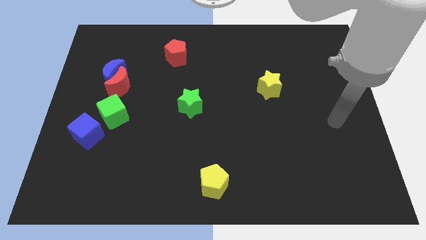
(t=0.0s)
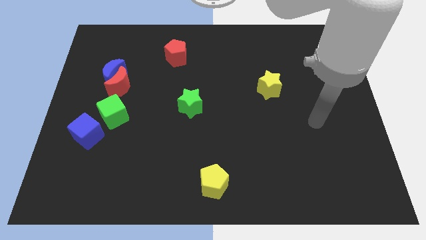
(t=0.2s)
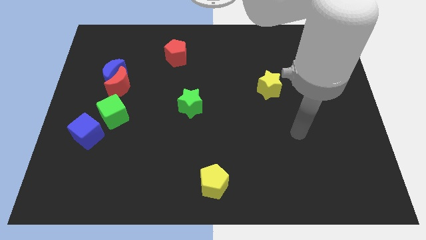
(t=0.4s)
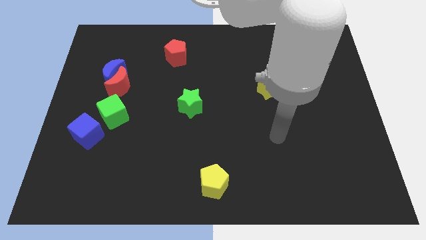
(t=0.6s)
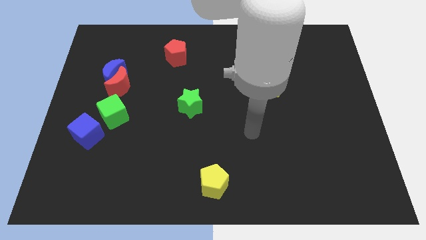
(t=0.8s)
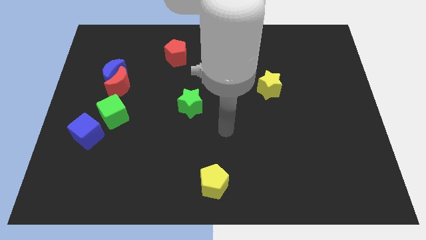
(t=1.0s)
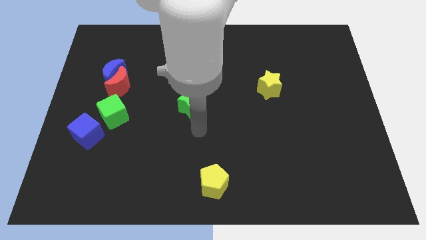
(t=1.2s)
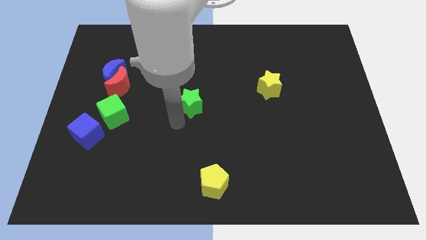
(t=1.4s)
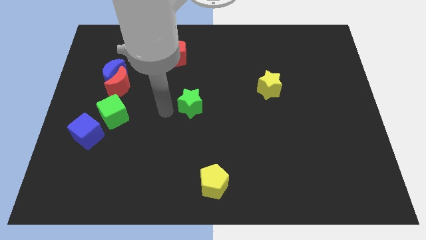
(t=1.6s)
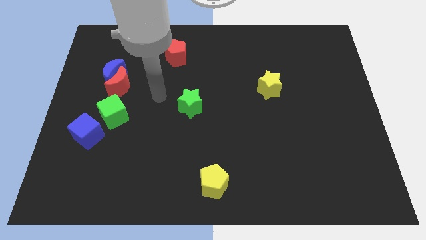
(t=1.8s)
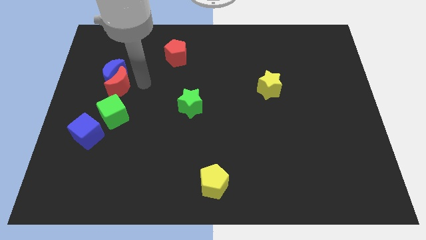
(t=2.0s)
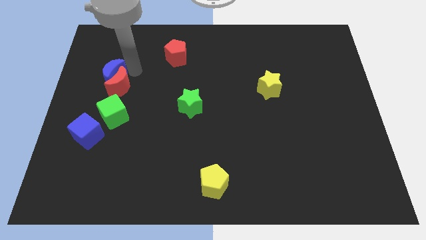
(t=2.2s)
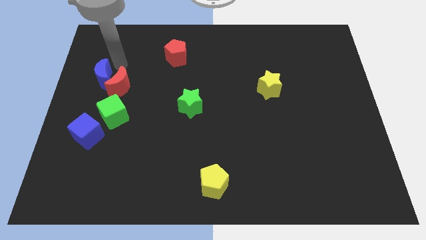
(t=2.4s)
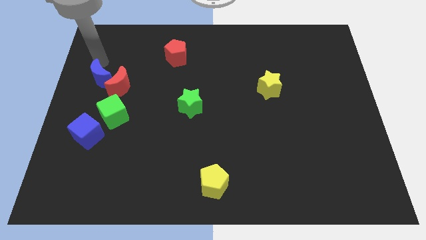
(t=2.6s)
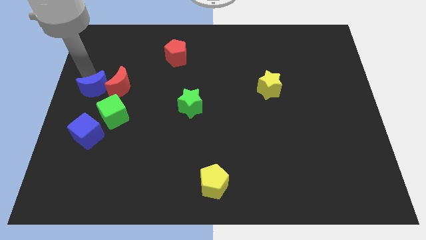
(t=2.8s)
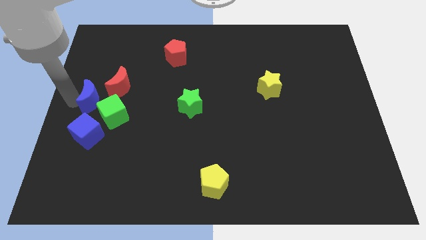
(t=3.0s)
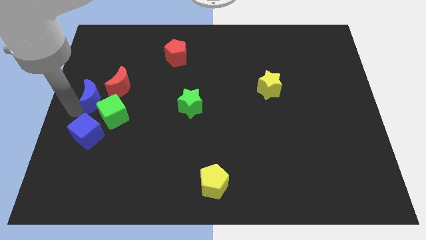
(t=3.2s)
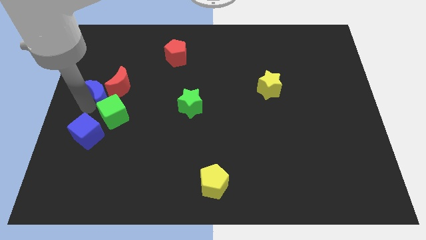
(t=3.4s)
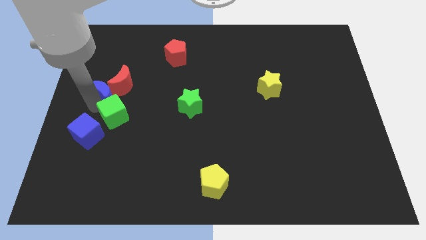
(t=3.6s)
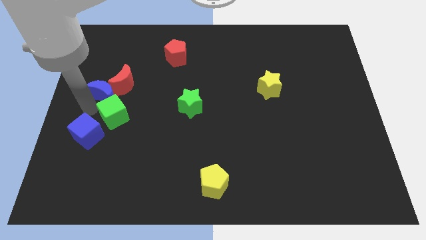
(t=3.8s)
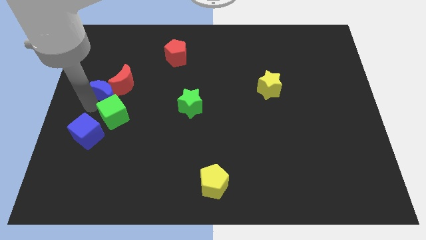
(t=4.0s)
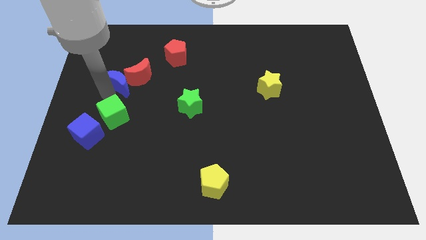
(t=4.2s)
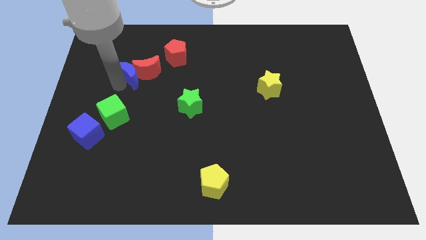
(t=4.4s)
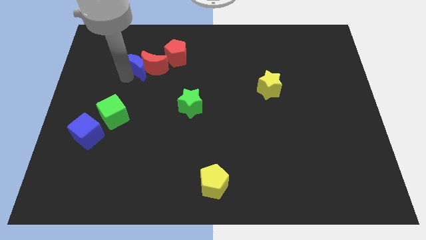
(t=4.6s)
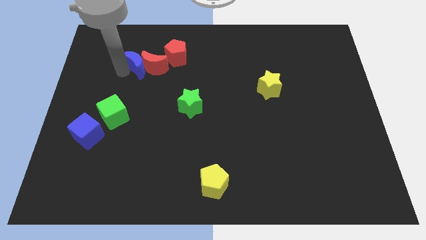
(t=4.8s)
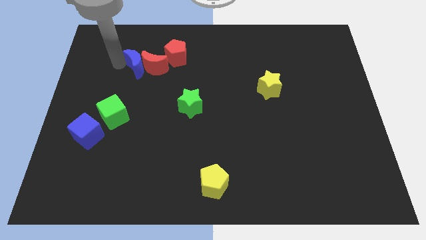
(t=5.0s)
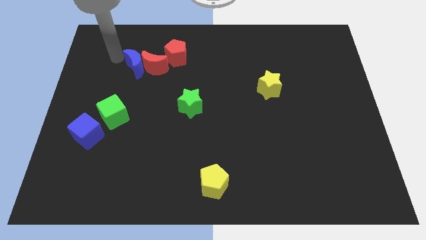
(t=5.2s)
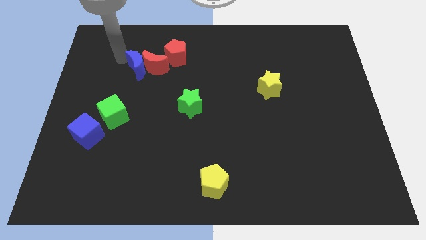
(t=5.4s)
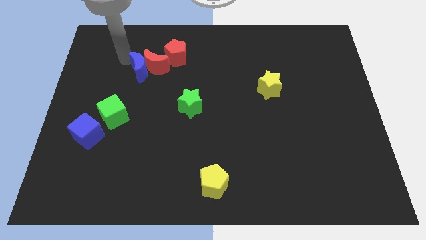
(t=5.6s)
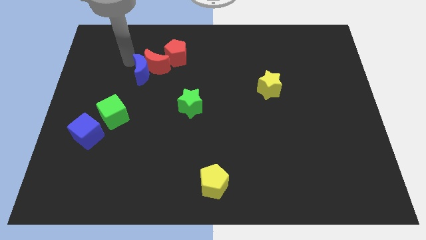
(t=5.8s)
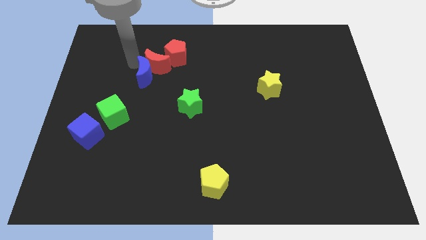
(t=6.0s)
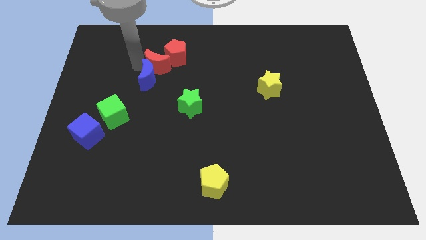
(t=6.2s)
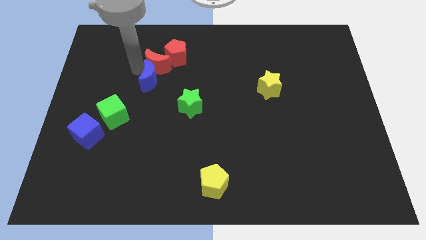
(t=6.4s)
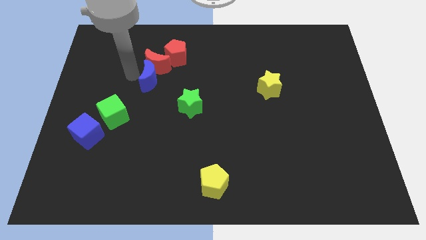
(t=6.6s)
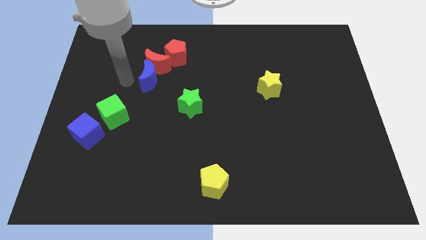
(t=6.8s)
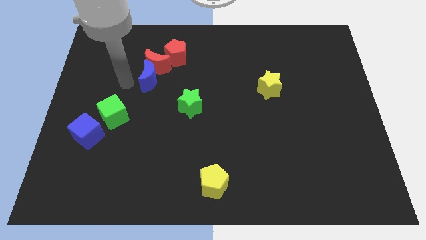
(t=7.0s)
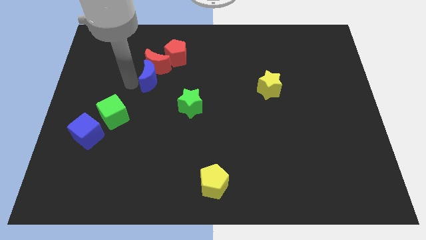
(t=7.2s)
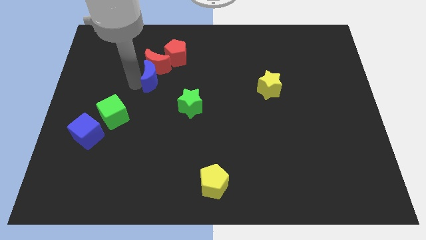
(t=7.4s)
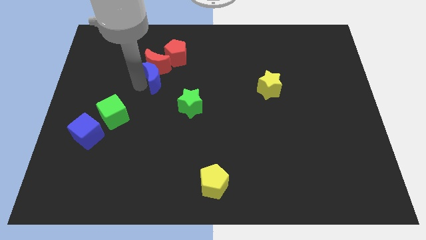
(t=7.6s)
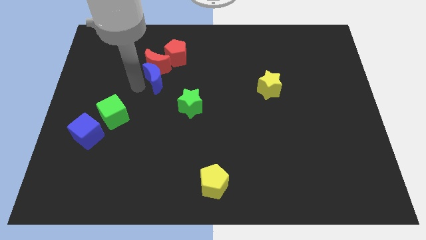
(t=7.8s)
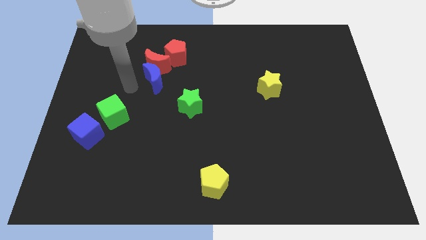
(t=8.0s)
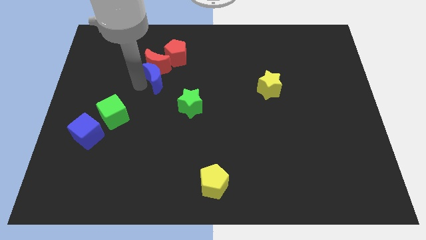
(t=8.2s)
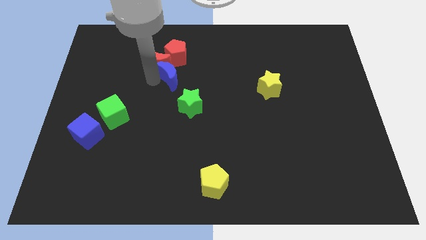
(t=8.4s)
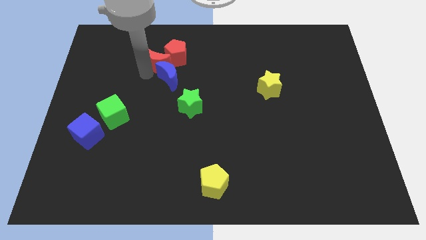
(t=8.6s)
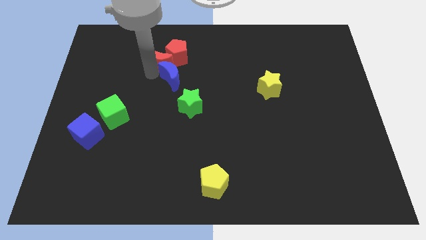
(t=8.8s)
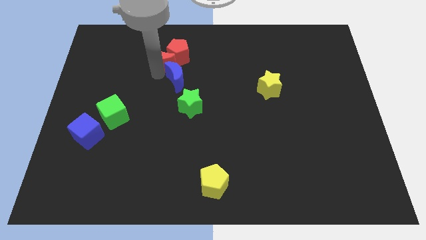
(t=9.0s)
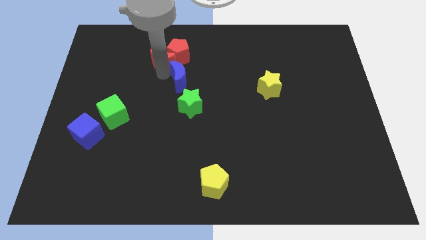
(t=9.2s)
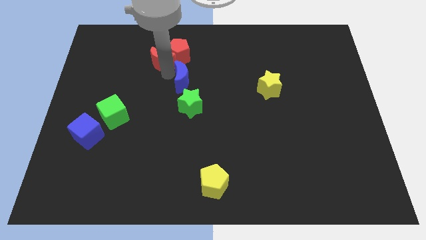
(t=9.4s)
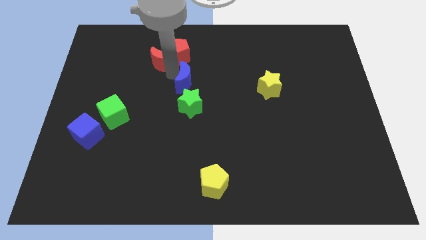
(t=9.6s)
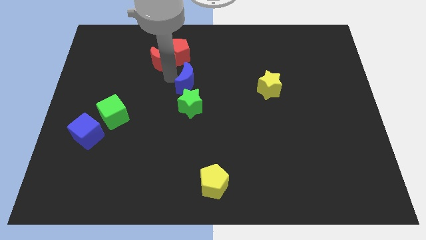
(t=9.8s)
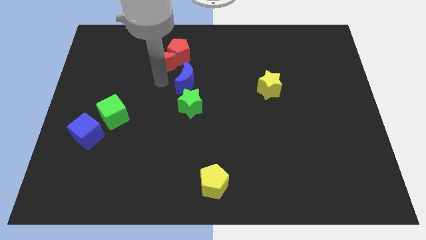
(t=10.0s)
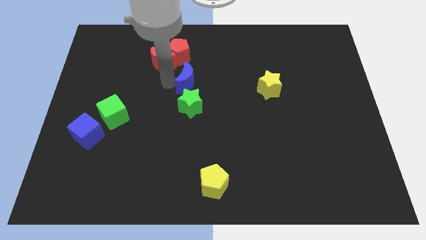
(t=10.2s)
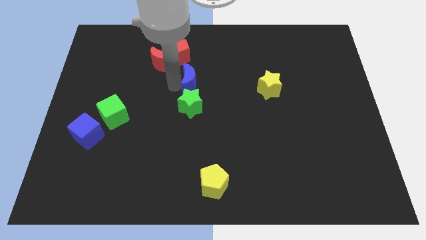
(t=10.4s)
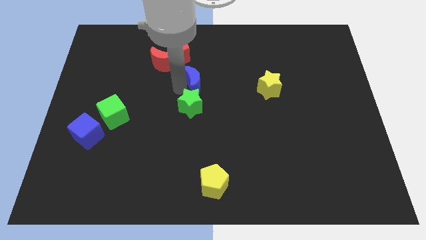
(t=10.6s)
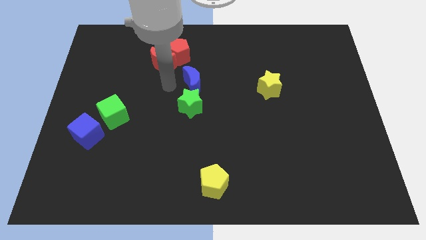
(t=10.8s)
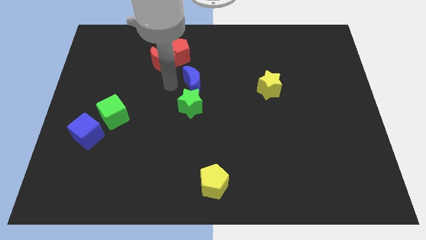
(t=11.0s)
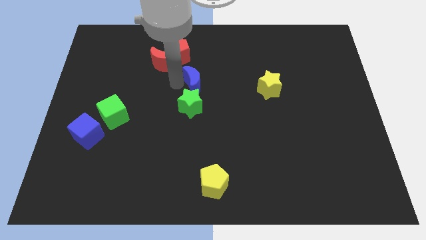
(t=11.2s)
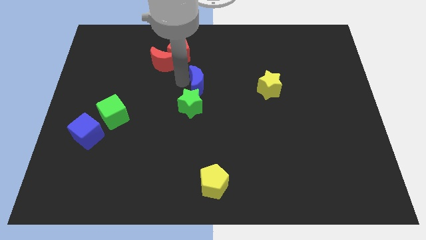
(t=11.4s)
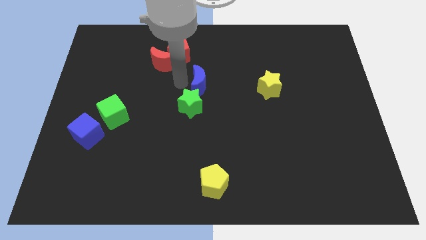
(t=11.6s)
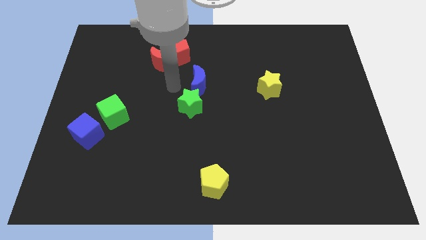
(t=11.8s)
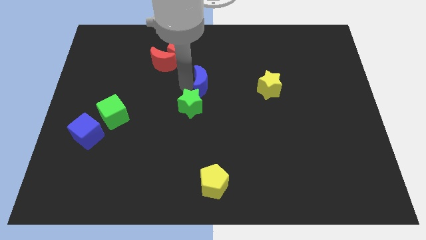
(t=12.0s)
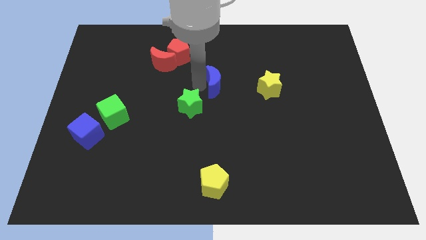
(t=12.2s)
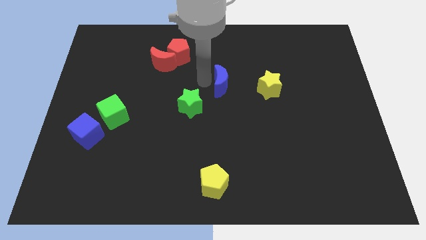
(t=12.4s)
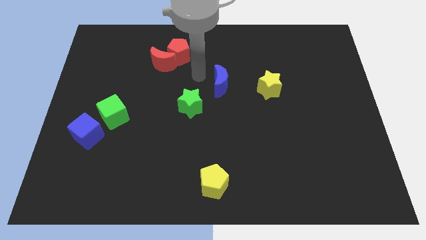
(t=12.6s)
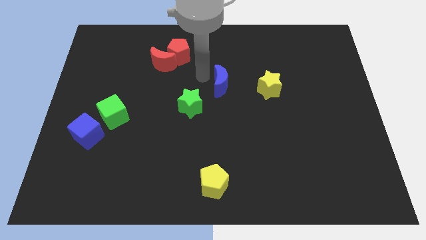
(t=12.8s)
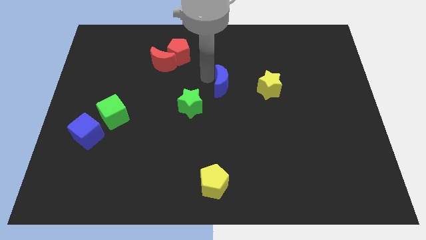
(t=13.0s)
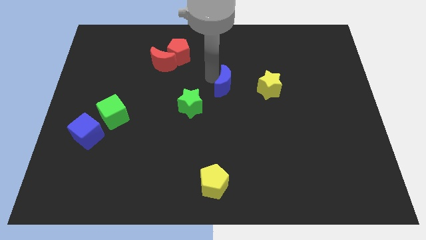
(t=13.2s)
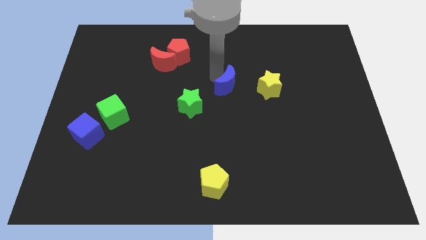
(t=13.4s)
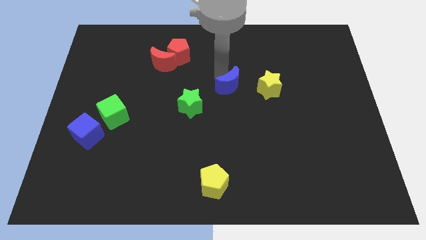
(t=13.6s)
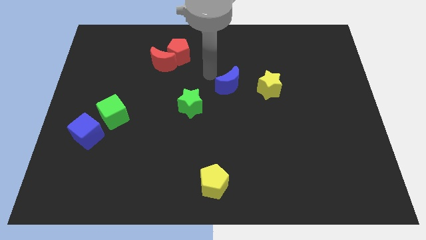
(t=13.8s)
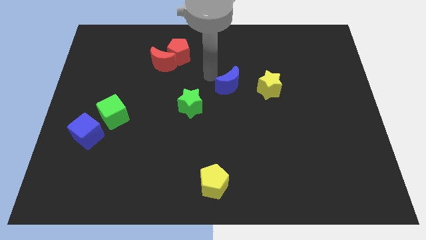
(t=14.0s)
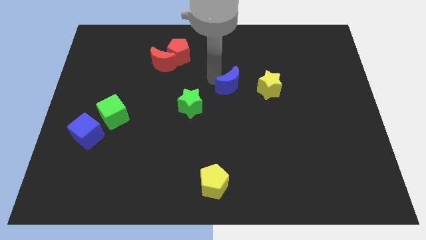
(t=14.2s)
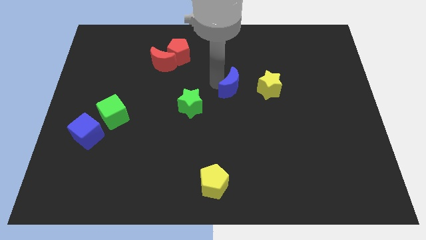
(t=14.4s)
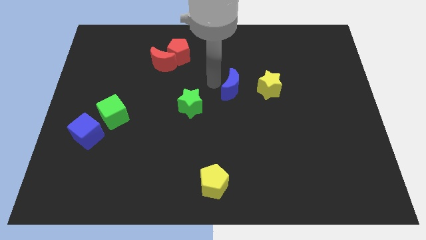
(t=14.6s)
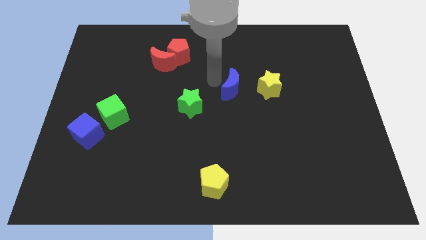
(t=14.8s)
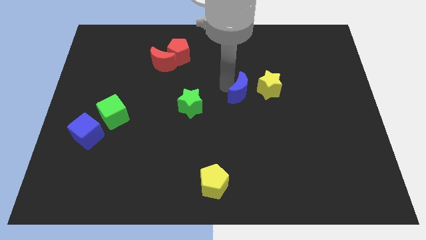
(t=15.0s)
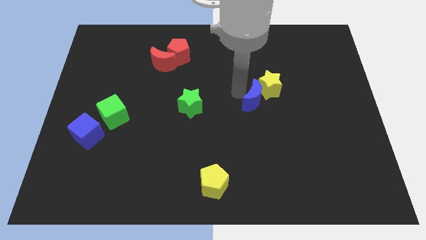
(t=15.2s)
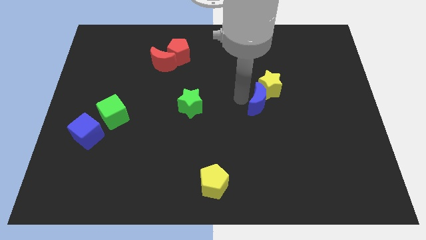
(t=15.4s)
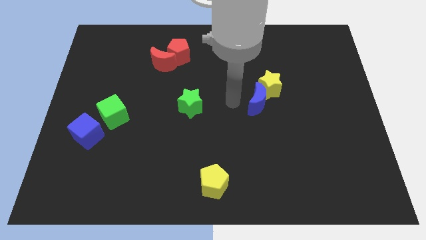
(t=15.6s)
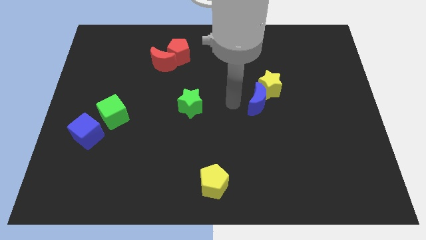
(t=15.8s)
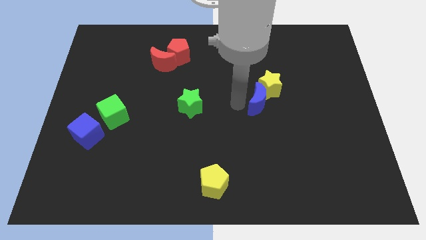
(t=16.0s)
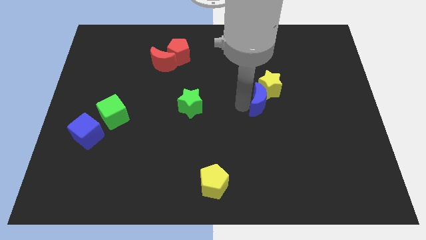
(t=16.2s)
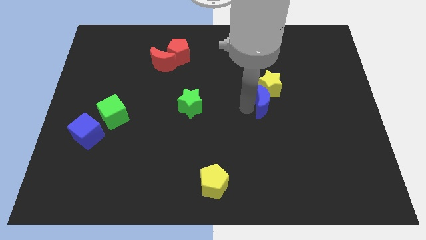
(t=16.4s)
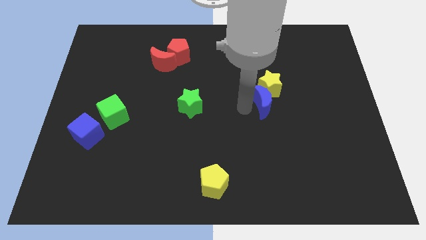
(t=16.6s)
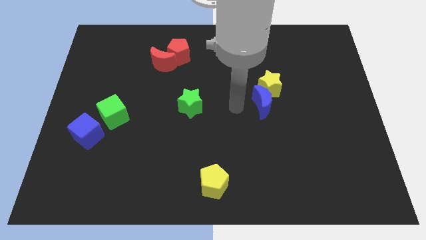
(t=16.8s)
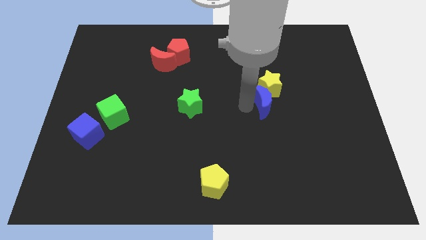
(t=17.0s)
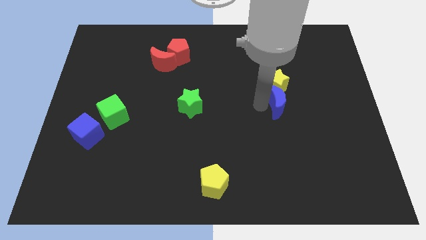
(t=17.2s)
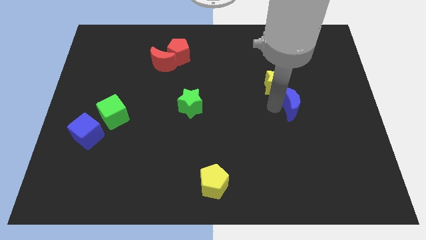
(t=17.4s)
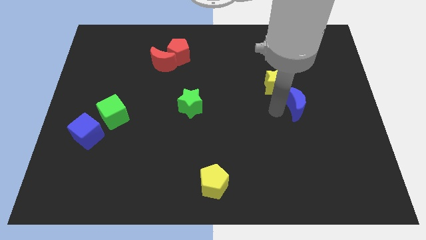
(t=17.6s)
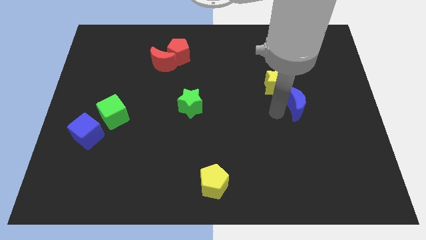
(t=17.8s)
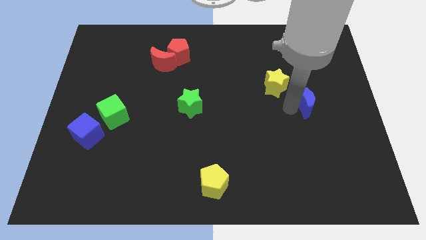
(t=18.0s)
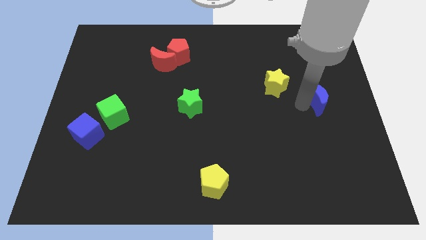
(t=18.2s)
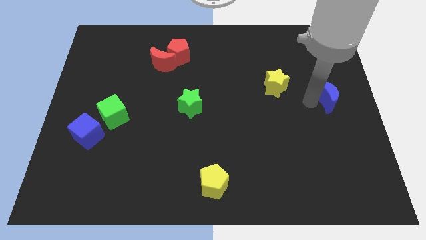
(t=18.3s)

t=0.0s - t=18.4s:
push the blue moon to the right side of the board
